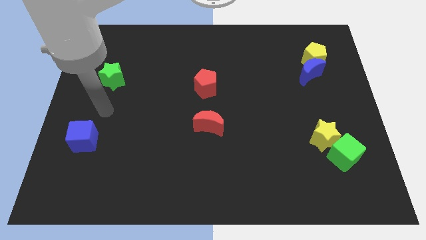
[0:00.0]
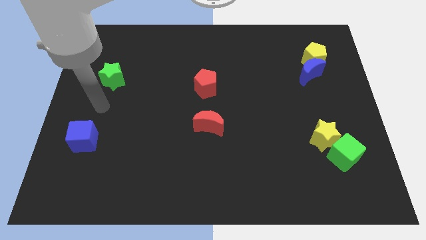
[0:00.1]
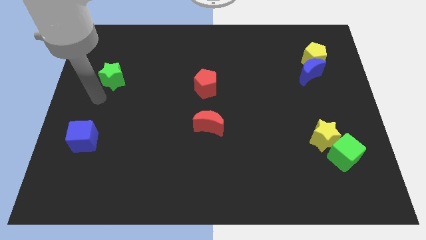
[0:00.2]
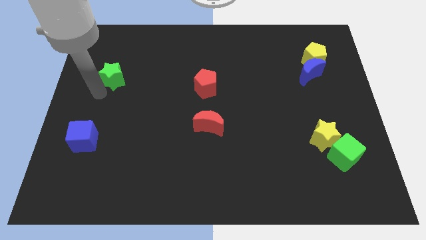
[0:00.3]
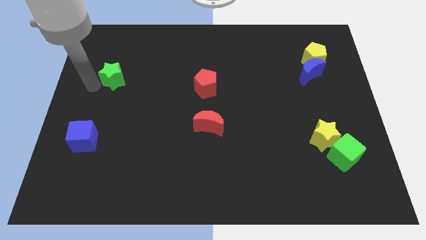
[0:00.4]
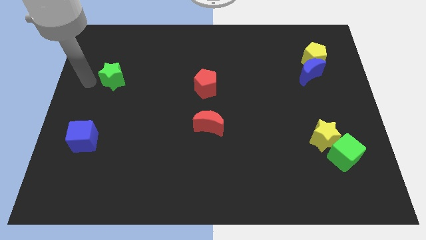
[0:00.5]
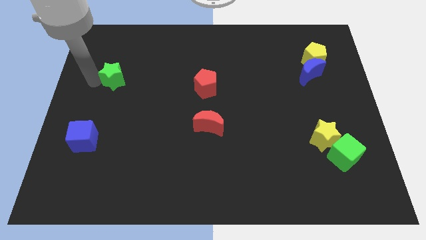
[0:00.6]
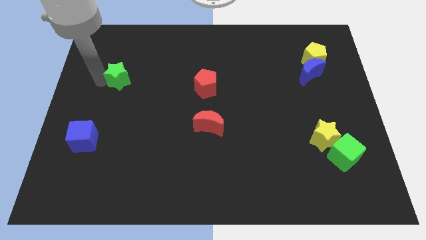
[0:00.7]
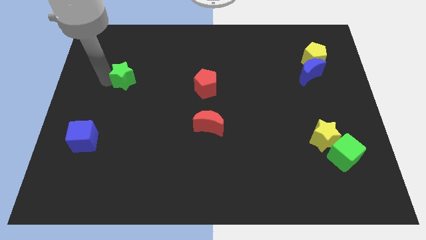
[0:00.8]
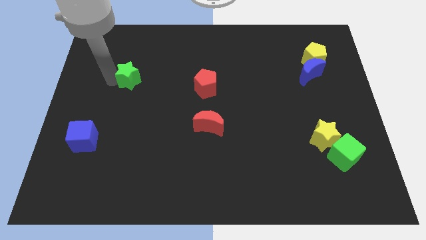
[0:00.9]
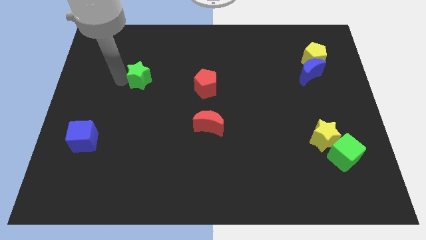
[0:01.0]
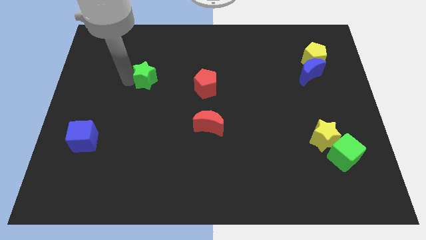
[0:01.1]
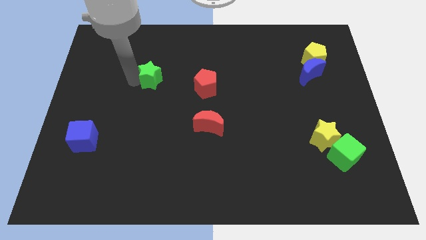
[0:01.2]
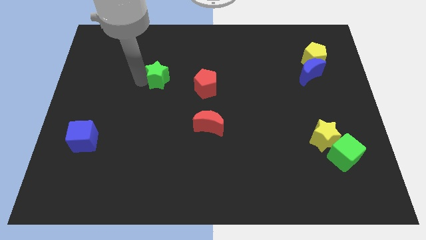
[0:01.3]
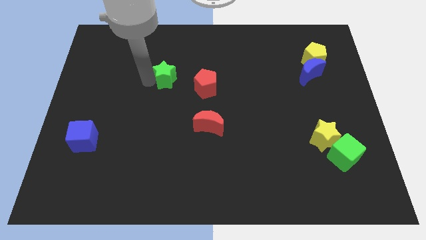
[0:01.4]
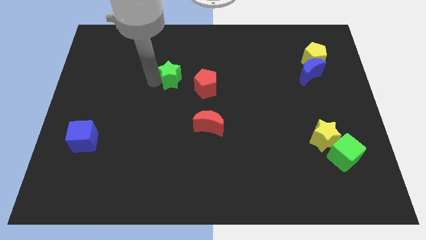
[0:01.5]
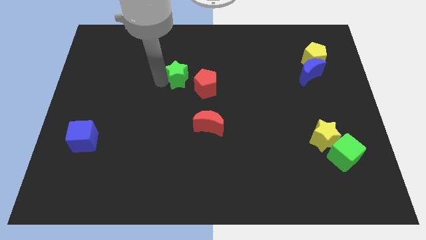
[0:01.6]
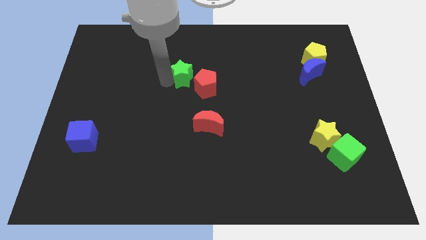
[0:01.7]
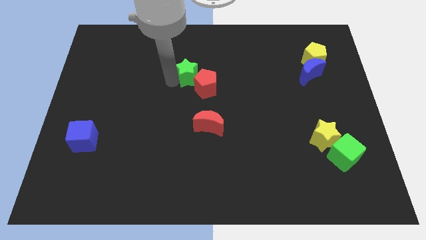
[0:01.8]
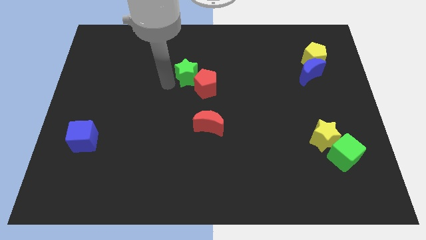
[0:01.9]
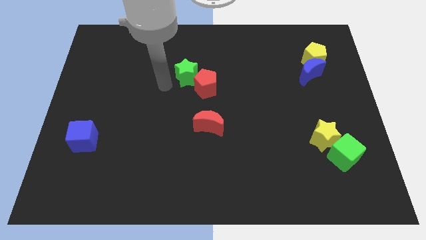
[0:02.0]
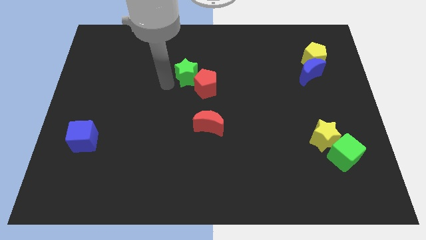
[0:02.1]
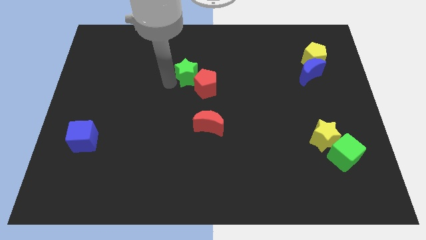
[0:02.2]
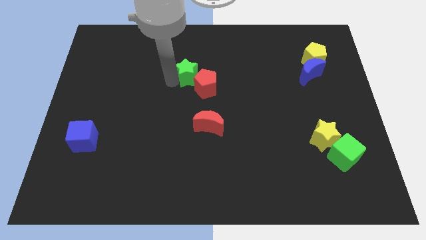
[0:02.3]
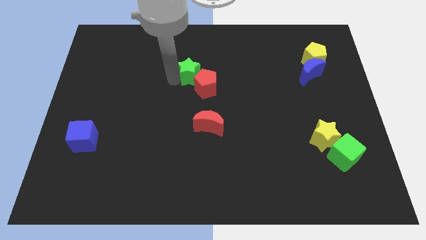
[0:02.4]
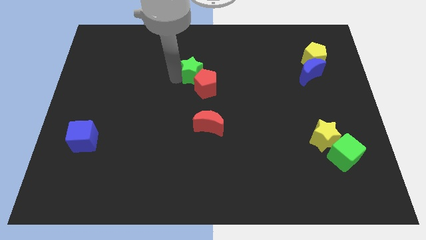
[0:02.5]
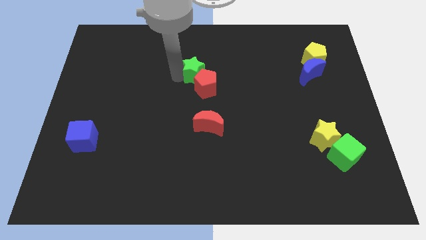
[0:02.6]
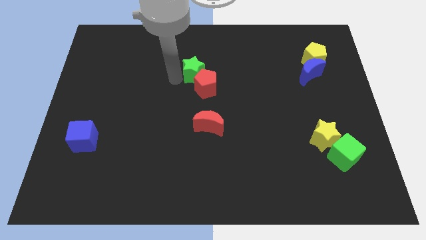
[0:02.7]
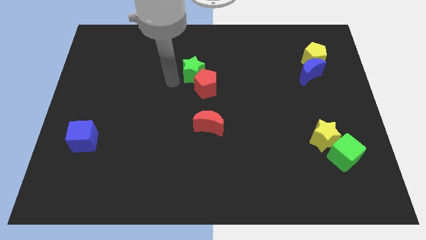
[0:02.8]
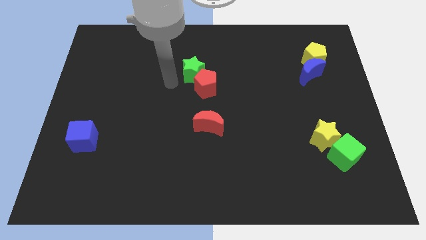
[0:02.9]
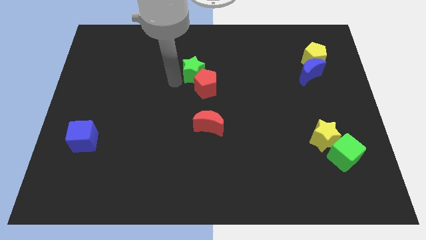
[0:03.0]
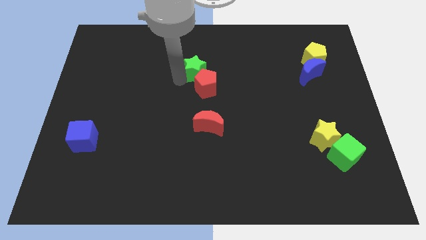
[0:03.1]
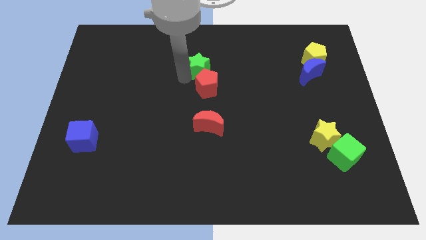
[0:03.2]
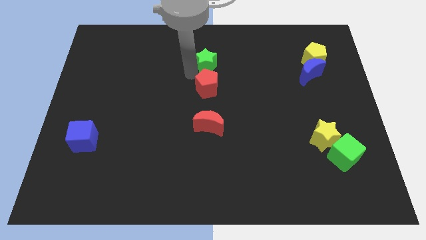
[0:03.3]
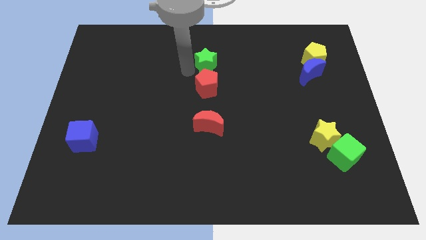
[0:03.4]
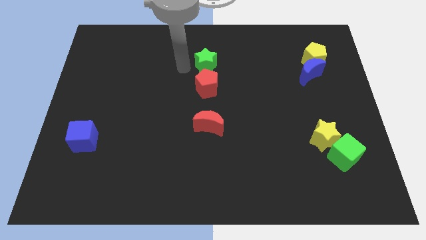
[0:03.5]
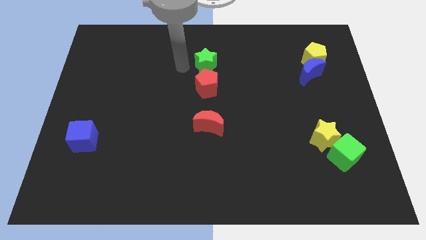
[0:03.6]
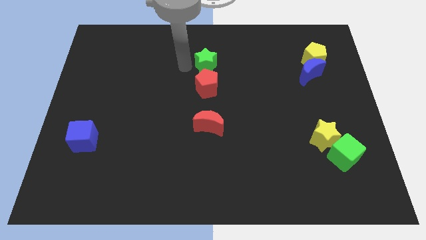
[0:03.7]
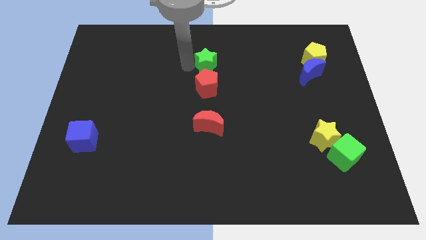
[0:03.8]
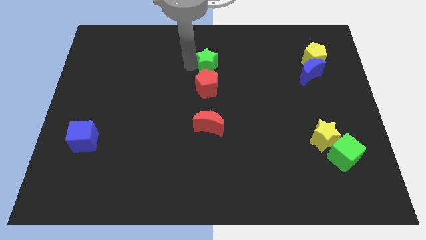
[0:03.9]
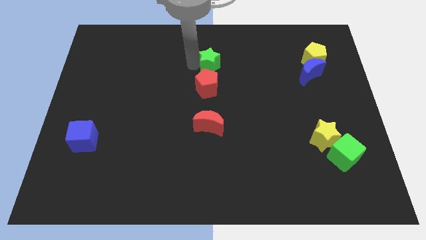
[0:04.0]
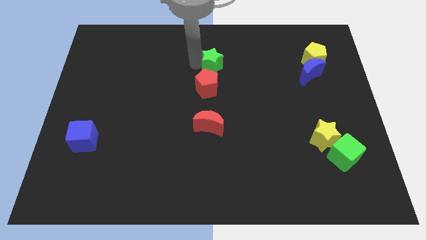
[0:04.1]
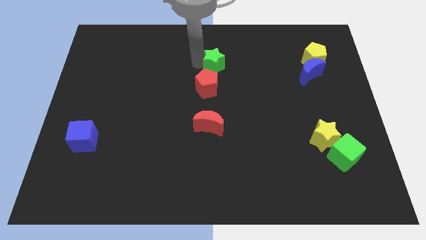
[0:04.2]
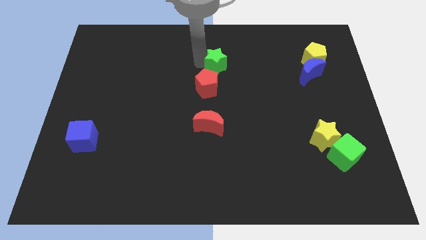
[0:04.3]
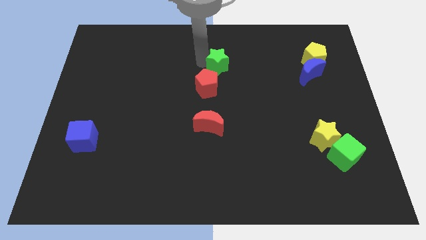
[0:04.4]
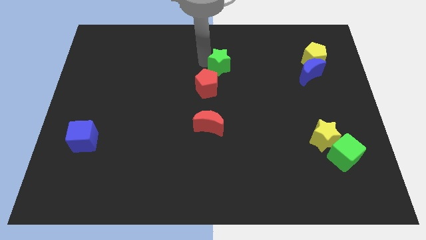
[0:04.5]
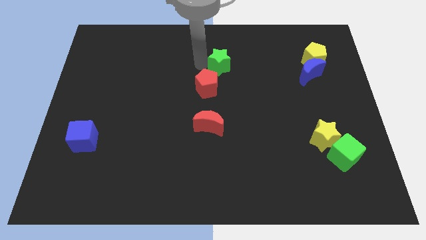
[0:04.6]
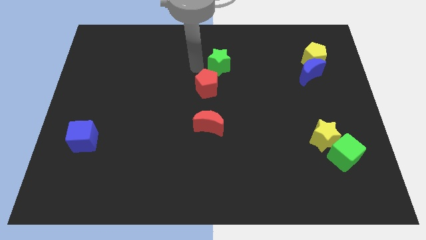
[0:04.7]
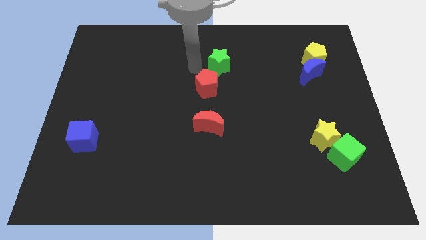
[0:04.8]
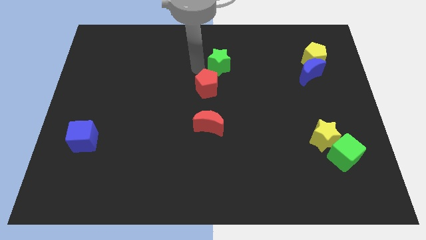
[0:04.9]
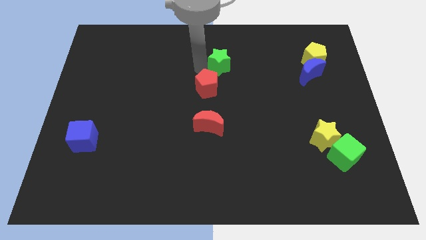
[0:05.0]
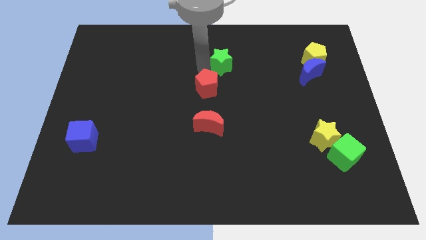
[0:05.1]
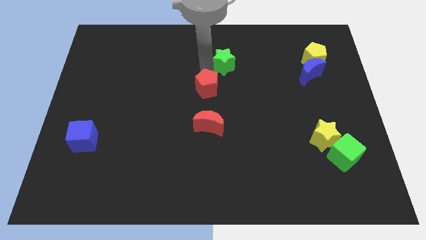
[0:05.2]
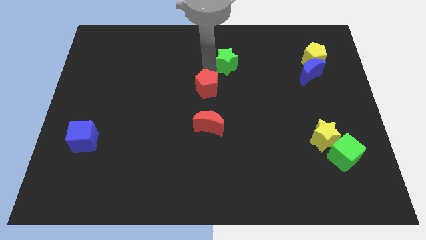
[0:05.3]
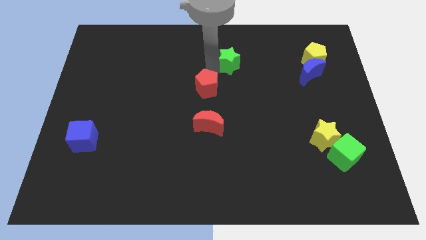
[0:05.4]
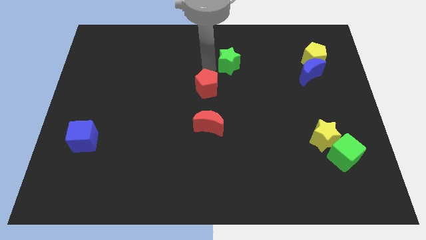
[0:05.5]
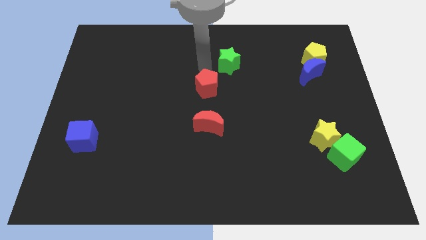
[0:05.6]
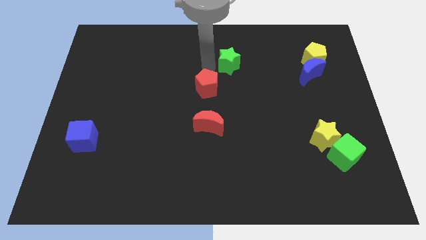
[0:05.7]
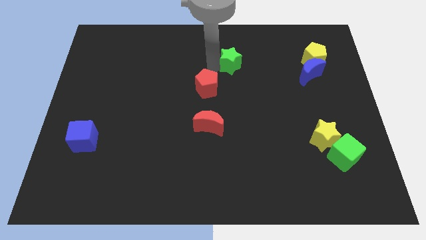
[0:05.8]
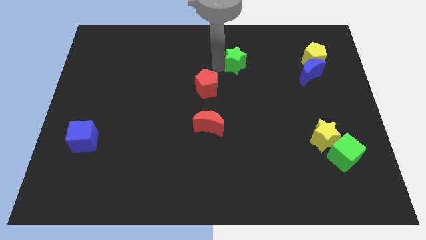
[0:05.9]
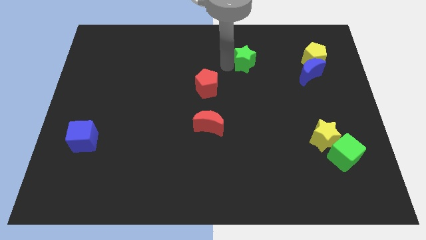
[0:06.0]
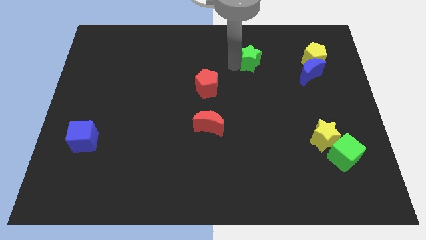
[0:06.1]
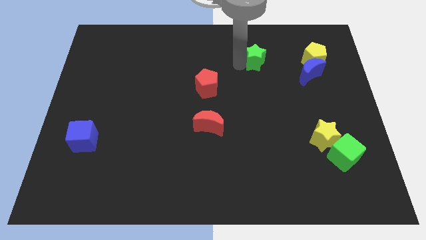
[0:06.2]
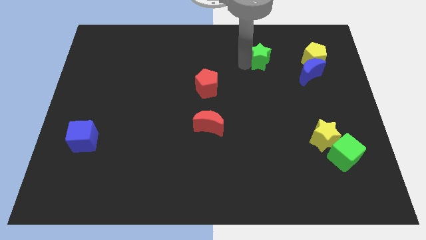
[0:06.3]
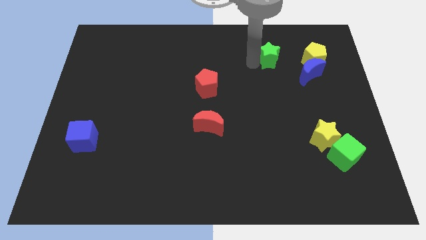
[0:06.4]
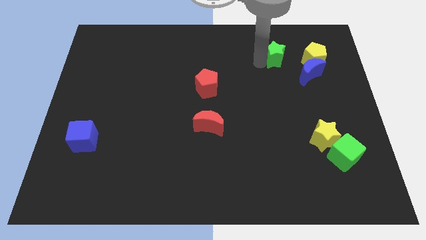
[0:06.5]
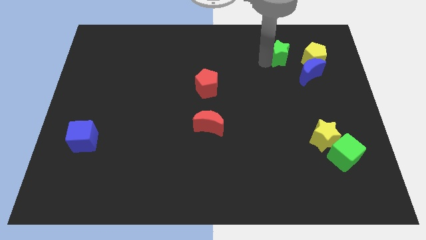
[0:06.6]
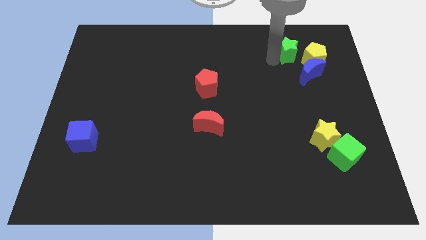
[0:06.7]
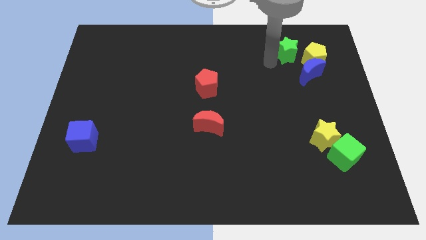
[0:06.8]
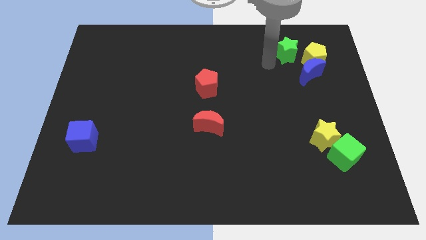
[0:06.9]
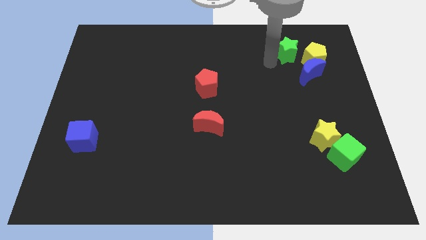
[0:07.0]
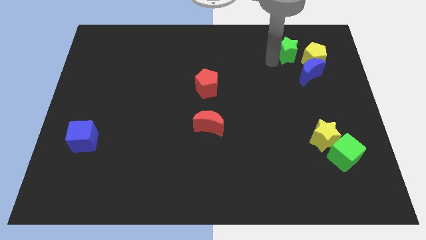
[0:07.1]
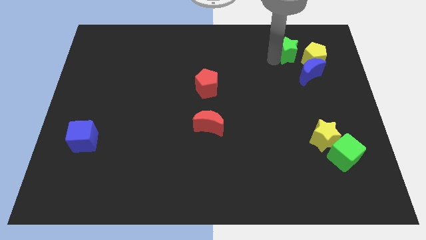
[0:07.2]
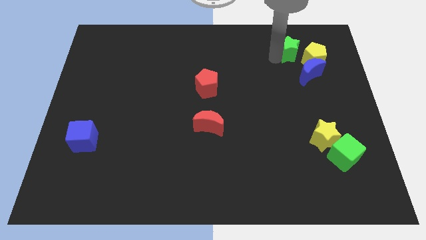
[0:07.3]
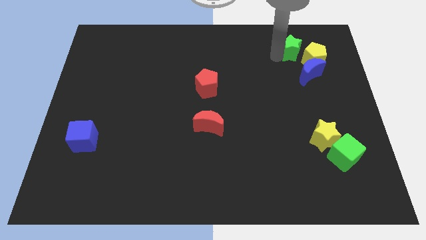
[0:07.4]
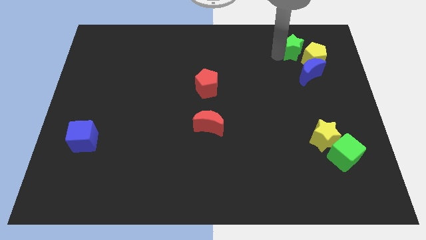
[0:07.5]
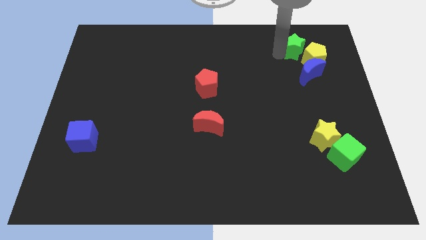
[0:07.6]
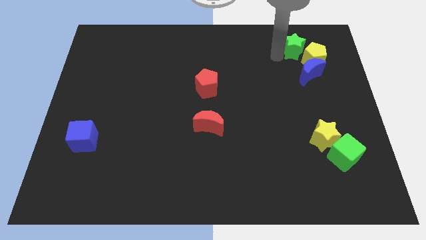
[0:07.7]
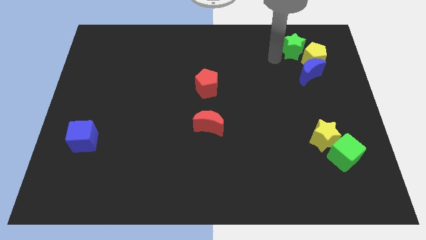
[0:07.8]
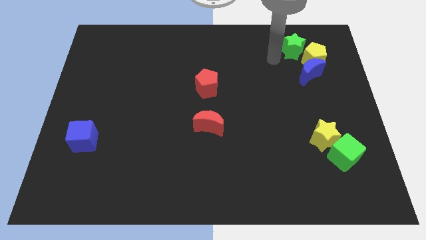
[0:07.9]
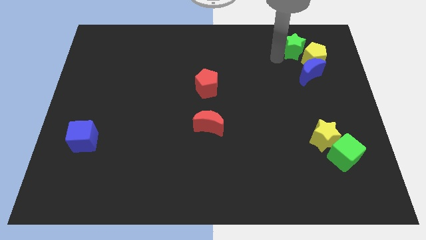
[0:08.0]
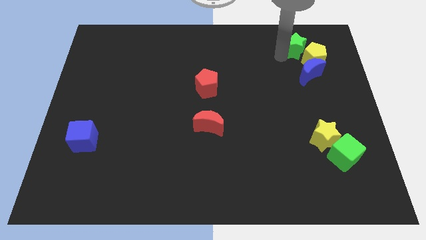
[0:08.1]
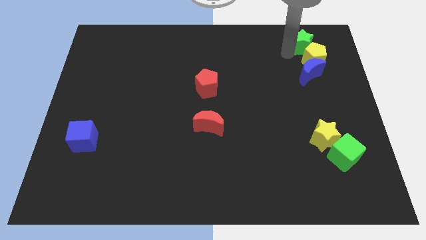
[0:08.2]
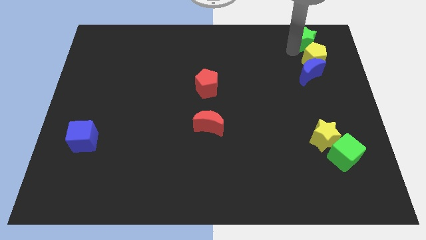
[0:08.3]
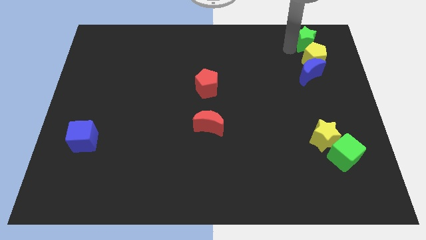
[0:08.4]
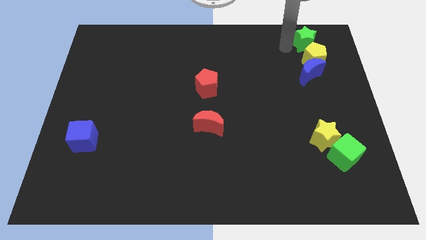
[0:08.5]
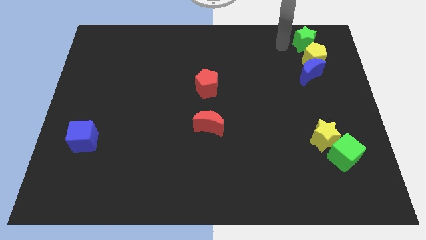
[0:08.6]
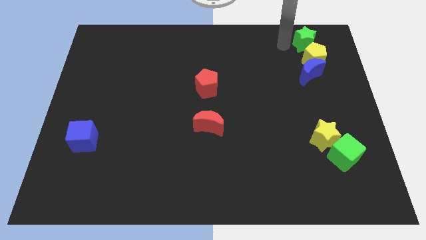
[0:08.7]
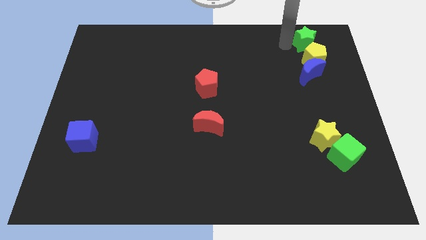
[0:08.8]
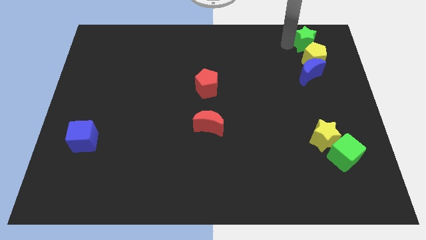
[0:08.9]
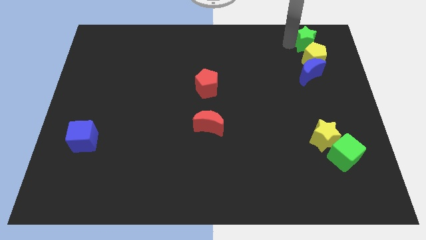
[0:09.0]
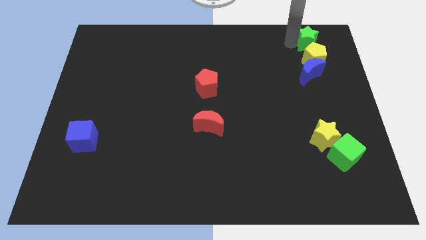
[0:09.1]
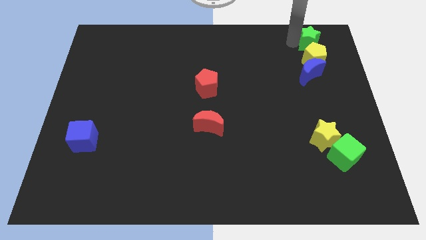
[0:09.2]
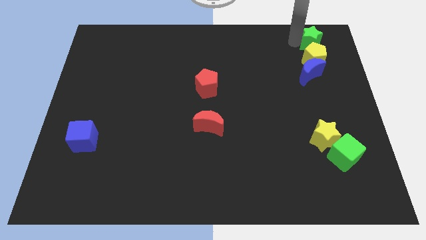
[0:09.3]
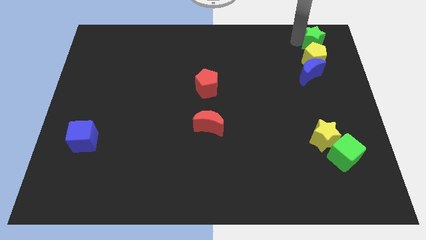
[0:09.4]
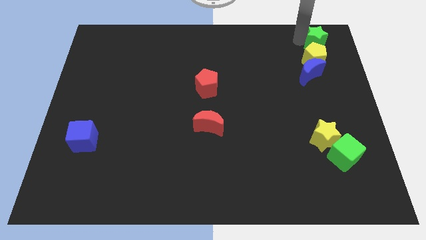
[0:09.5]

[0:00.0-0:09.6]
slide the green star to the upper right corner
